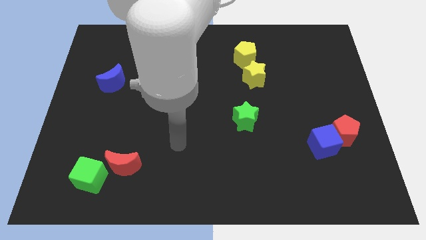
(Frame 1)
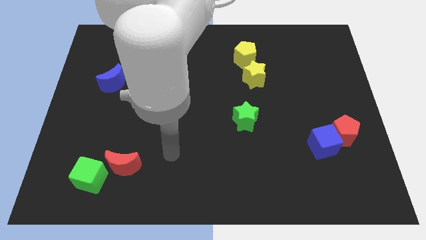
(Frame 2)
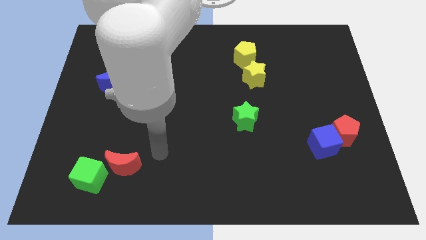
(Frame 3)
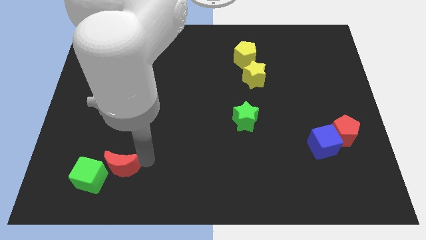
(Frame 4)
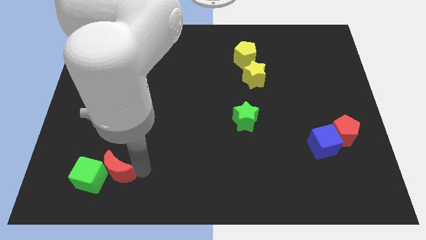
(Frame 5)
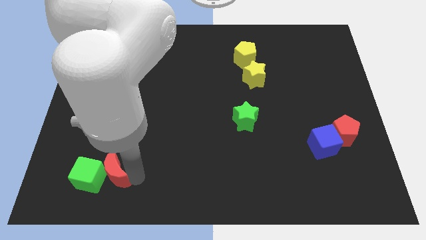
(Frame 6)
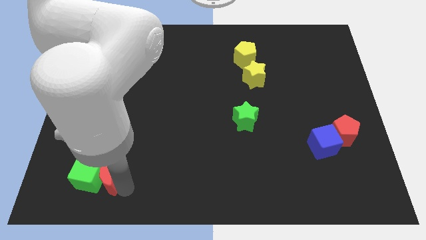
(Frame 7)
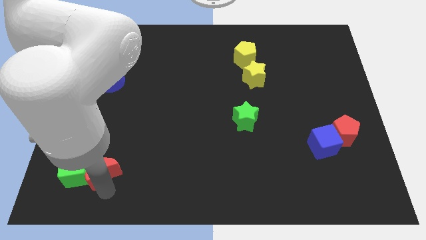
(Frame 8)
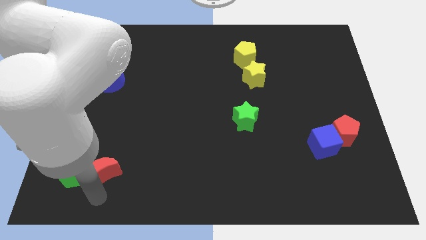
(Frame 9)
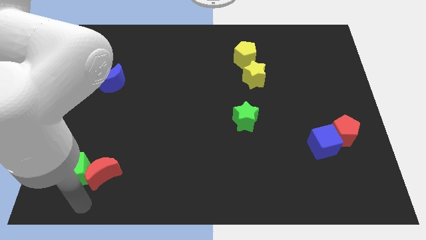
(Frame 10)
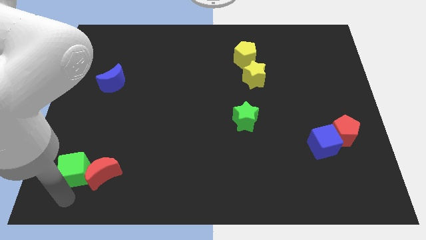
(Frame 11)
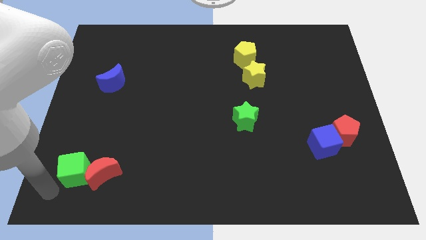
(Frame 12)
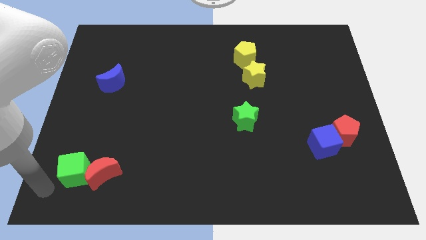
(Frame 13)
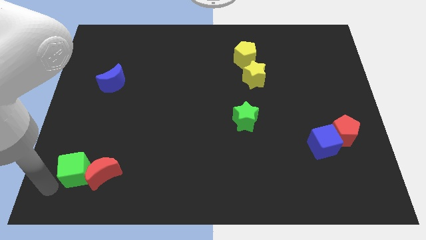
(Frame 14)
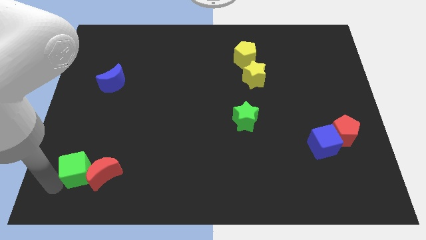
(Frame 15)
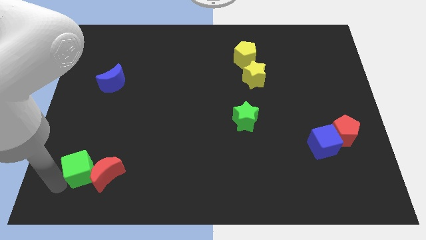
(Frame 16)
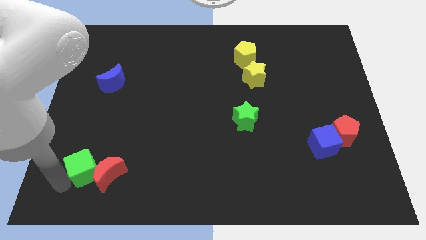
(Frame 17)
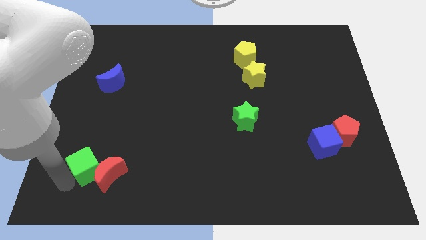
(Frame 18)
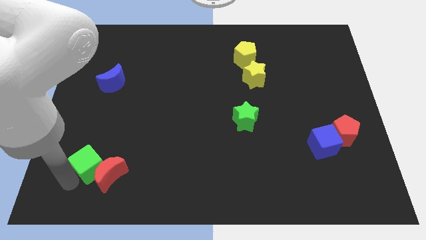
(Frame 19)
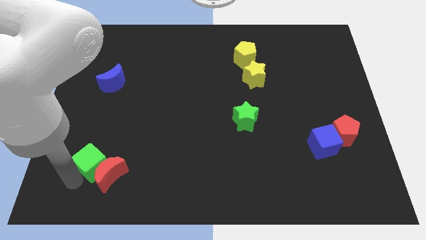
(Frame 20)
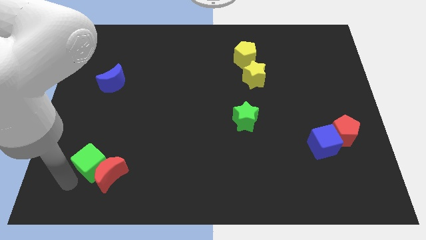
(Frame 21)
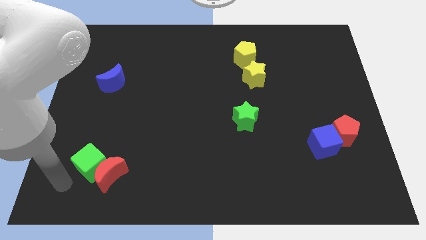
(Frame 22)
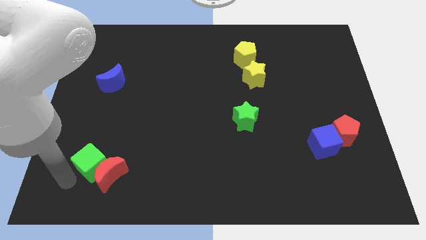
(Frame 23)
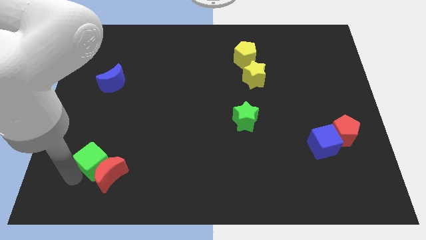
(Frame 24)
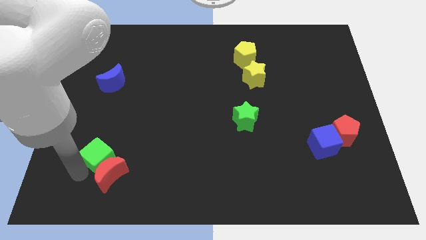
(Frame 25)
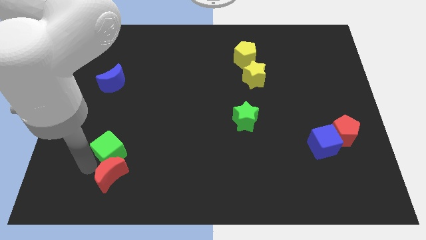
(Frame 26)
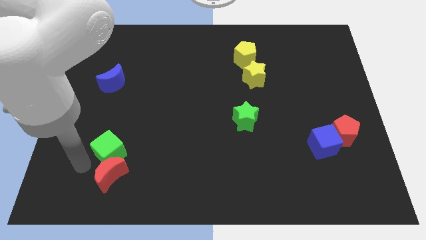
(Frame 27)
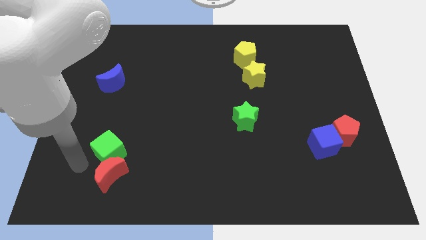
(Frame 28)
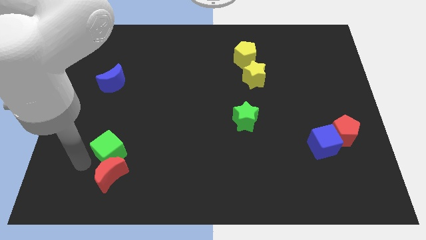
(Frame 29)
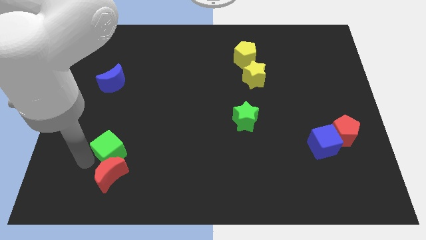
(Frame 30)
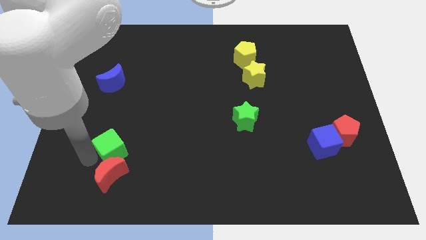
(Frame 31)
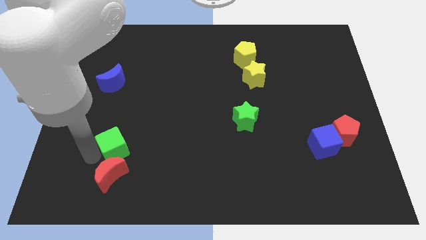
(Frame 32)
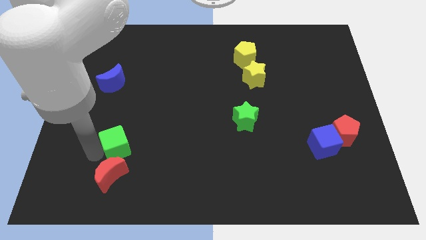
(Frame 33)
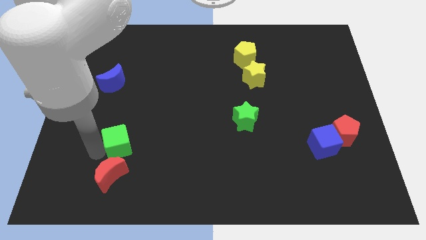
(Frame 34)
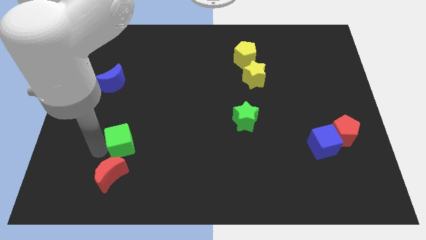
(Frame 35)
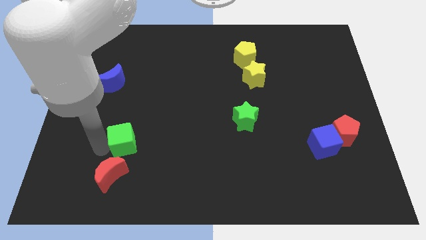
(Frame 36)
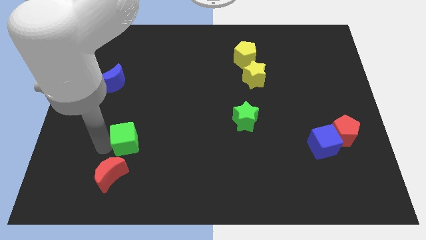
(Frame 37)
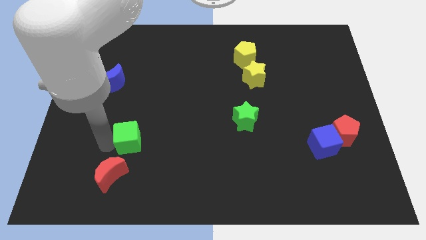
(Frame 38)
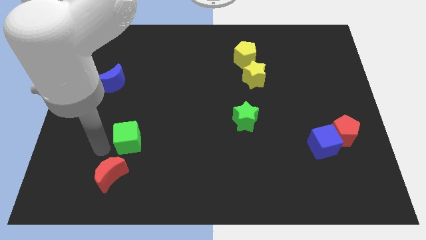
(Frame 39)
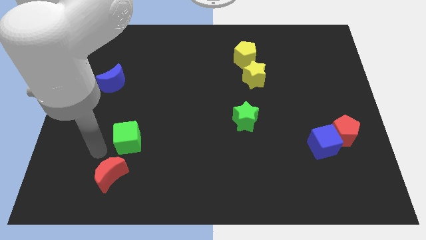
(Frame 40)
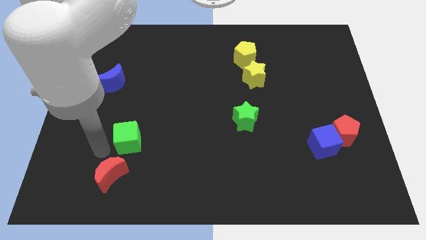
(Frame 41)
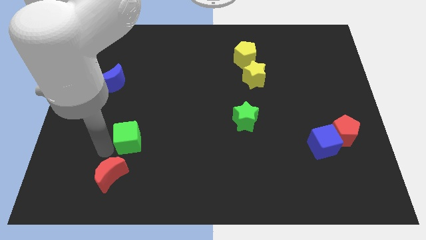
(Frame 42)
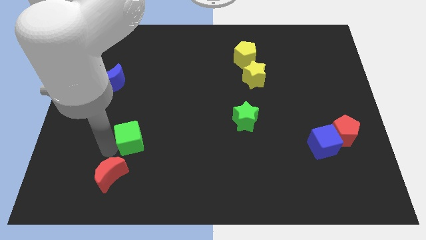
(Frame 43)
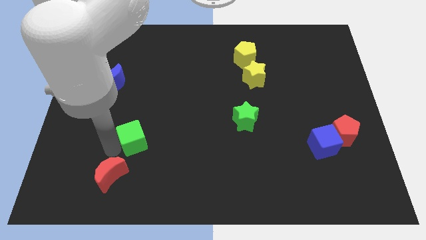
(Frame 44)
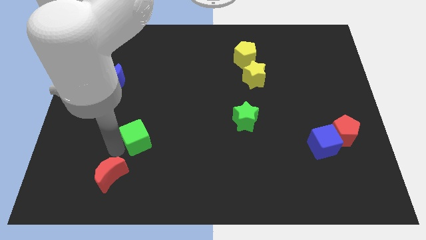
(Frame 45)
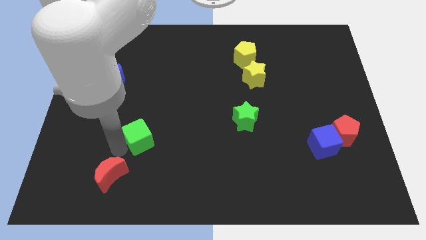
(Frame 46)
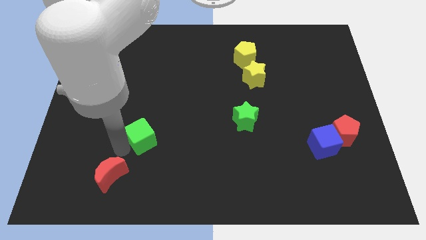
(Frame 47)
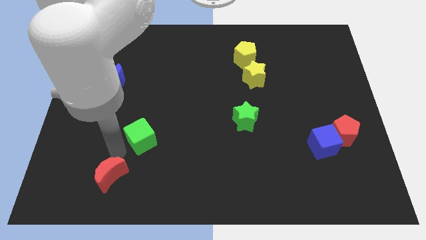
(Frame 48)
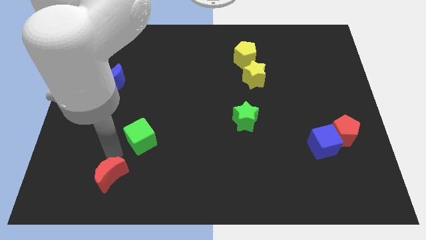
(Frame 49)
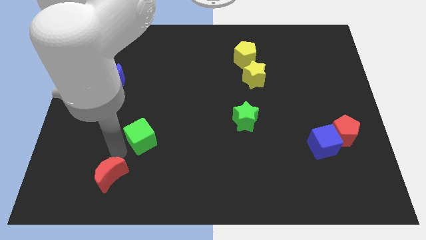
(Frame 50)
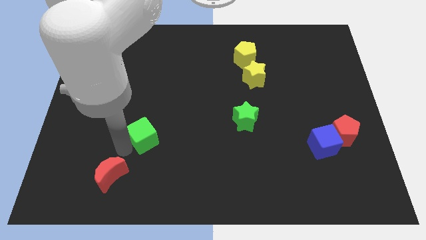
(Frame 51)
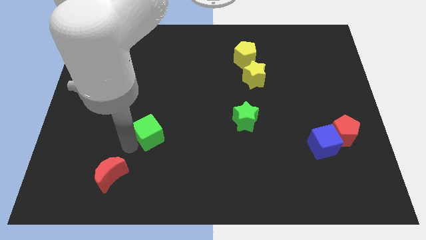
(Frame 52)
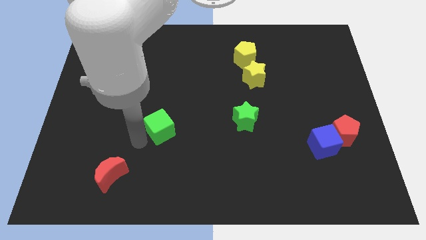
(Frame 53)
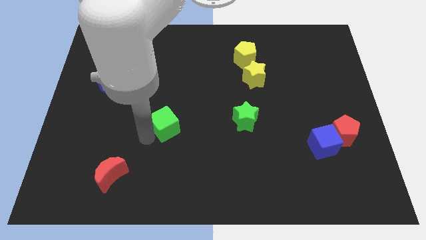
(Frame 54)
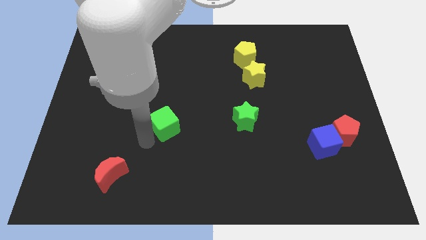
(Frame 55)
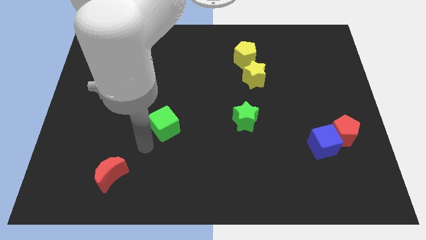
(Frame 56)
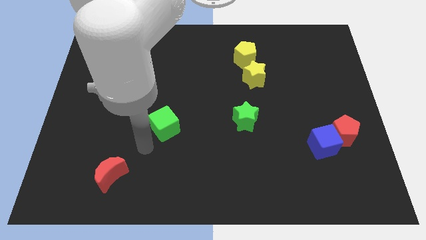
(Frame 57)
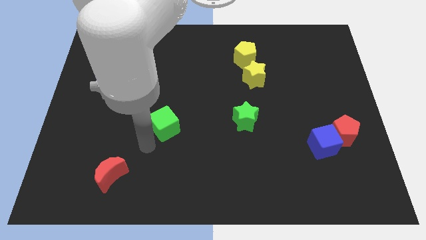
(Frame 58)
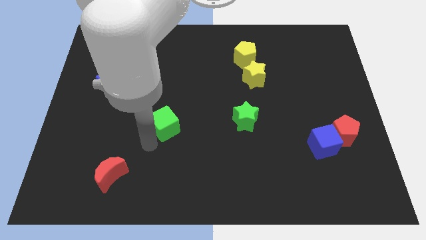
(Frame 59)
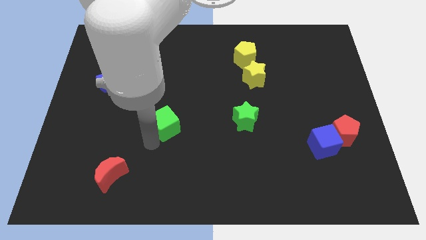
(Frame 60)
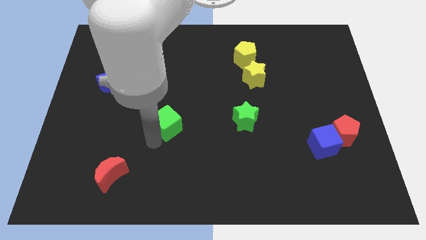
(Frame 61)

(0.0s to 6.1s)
put the green cube to the center
